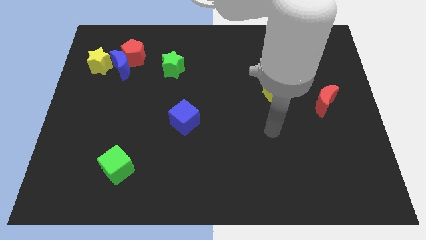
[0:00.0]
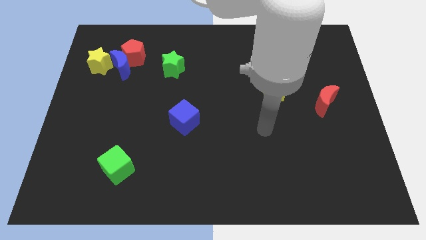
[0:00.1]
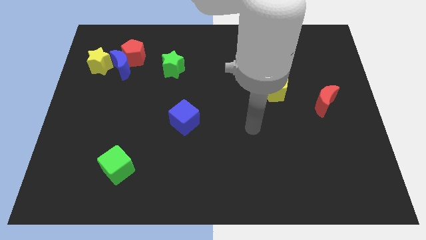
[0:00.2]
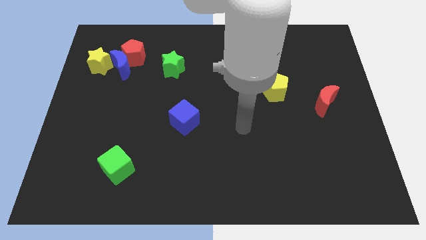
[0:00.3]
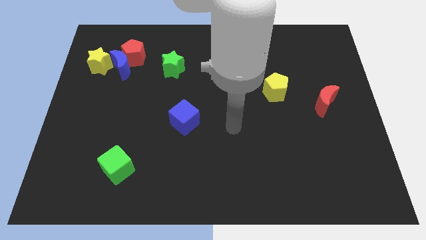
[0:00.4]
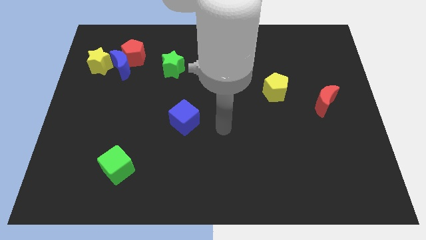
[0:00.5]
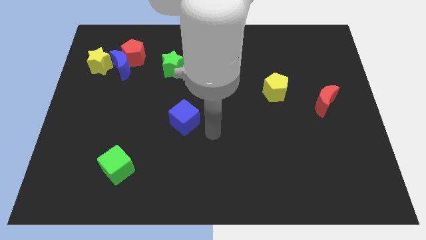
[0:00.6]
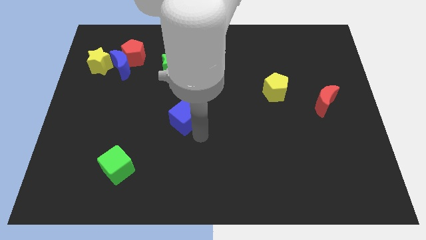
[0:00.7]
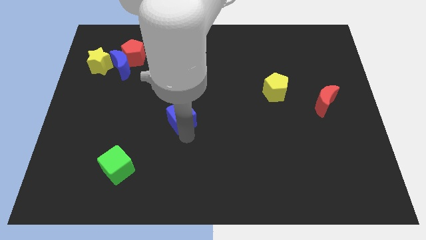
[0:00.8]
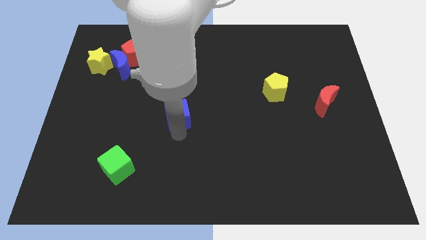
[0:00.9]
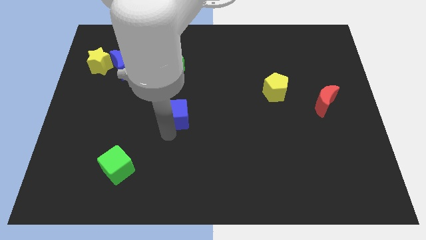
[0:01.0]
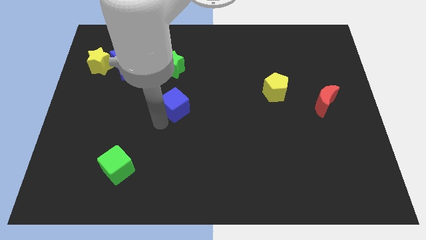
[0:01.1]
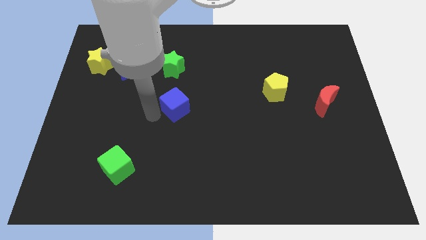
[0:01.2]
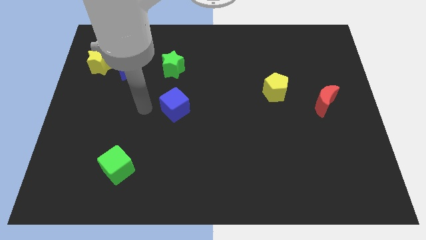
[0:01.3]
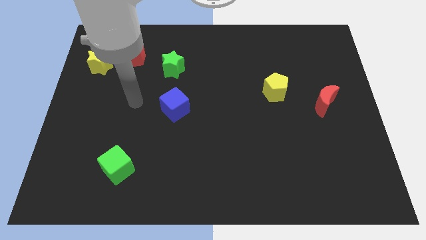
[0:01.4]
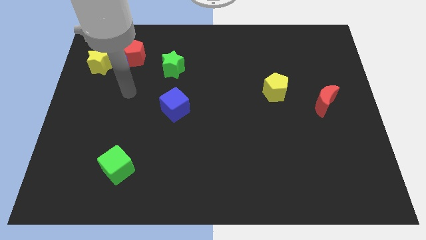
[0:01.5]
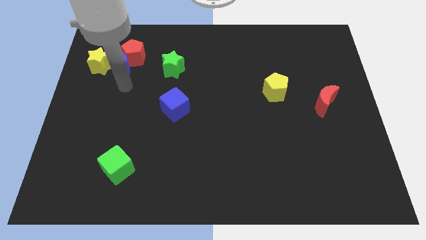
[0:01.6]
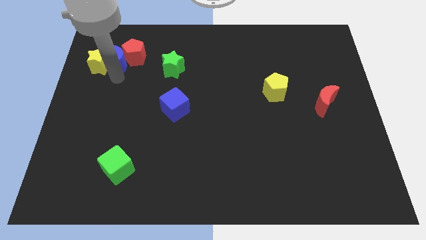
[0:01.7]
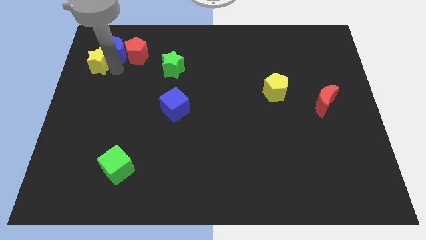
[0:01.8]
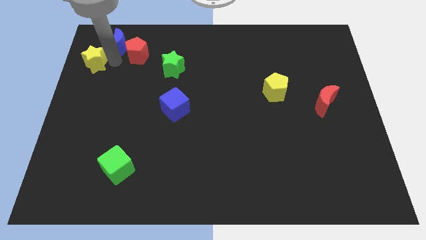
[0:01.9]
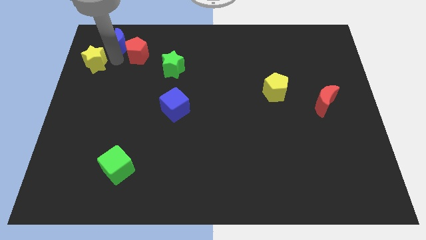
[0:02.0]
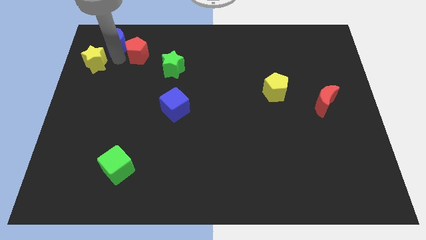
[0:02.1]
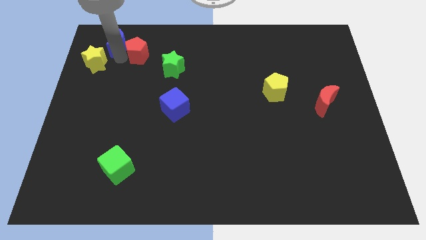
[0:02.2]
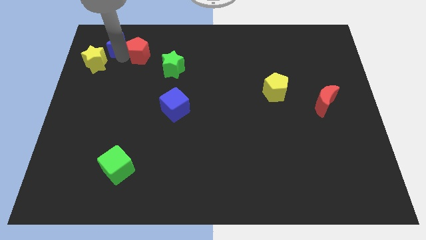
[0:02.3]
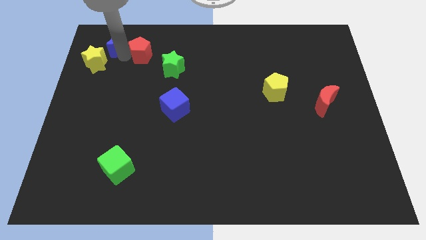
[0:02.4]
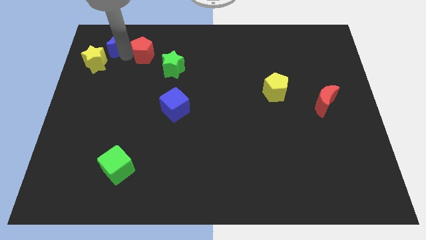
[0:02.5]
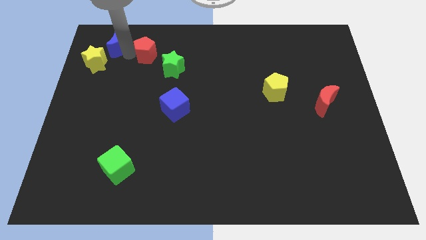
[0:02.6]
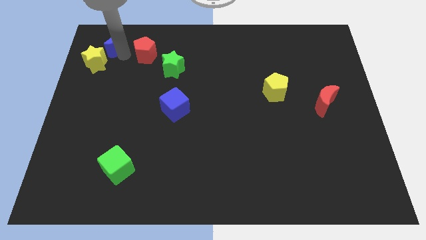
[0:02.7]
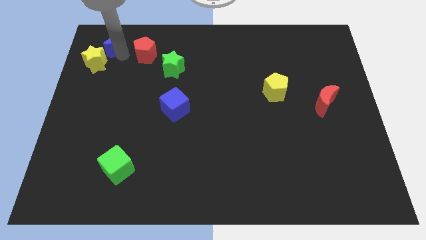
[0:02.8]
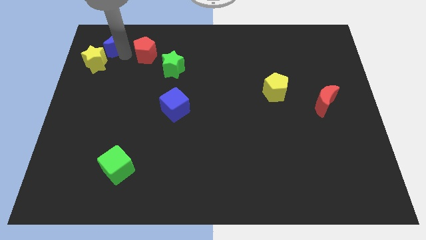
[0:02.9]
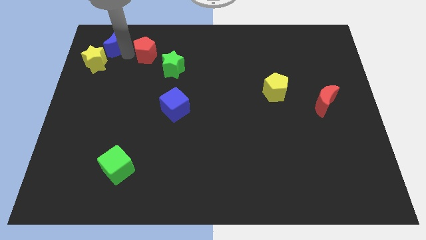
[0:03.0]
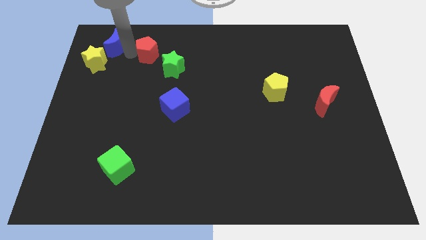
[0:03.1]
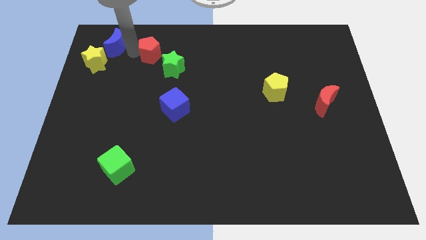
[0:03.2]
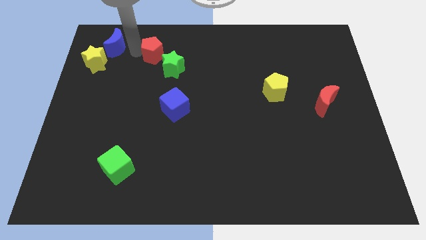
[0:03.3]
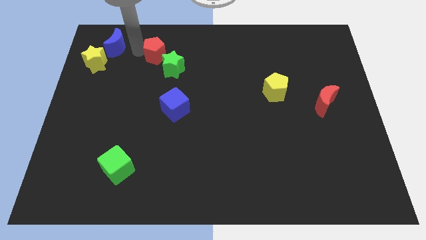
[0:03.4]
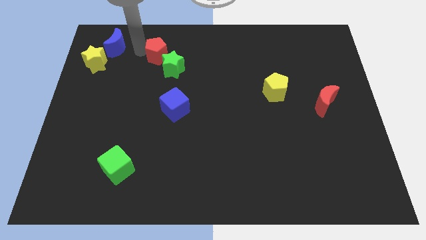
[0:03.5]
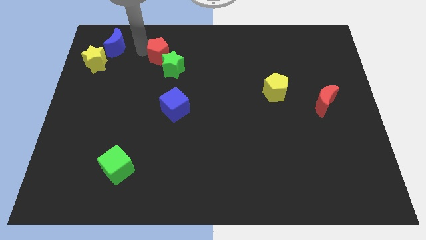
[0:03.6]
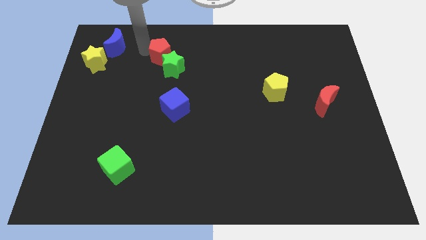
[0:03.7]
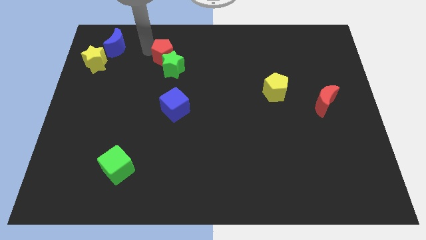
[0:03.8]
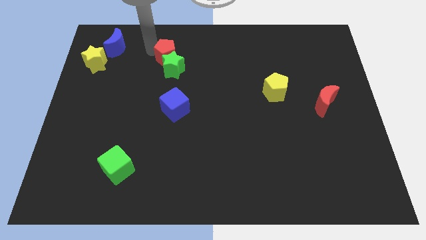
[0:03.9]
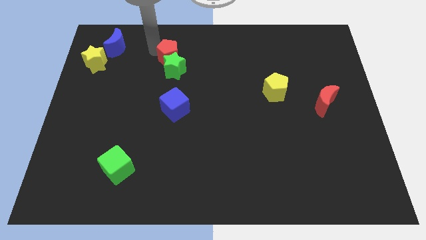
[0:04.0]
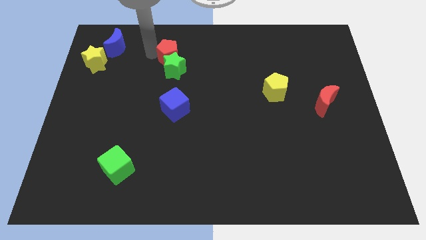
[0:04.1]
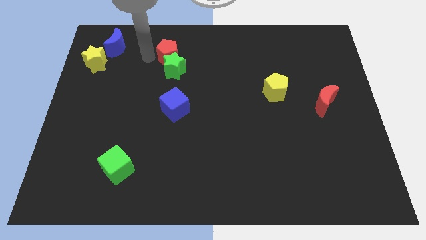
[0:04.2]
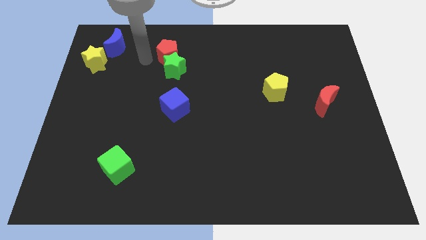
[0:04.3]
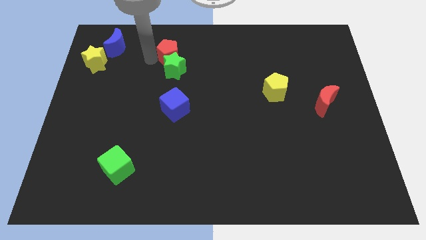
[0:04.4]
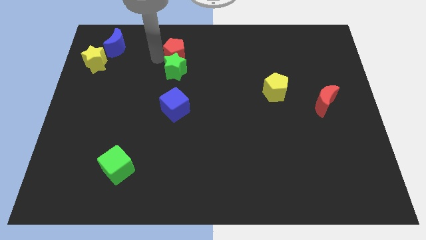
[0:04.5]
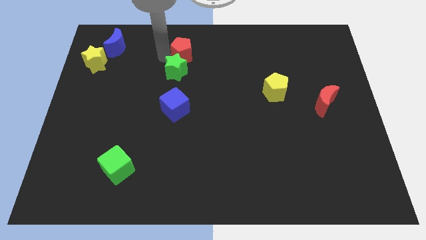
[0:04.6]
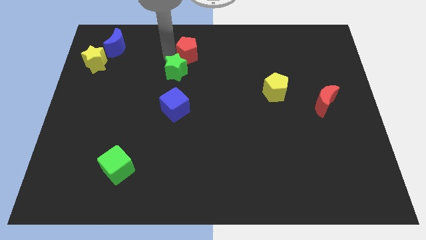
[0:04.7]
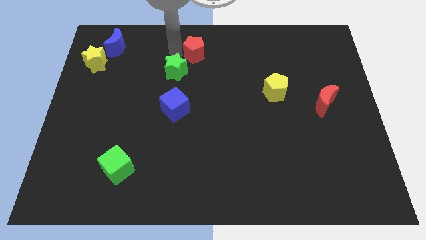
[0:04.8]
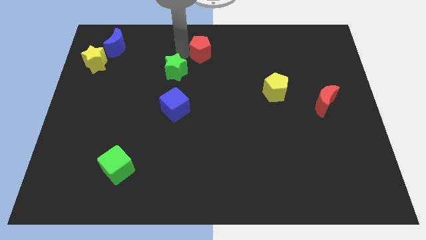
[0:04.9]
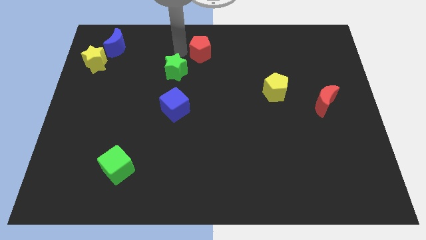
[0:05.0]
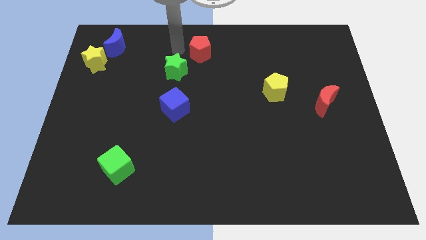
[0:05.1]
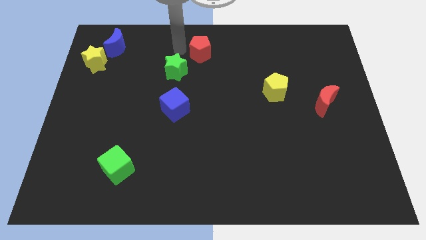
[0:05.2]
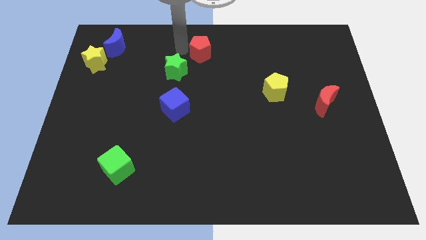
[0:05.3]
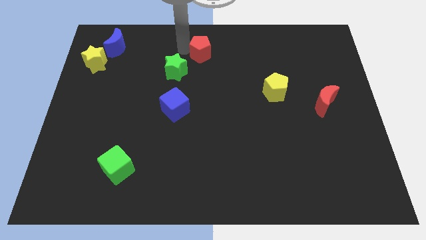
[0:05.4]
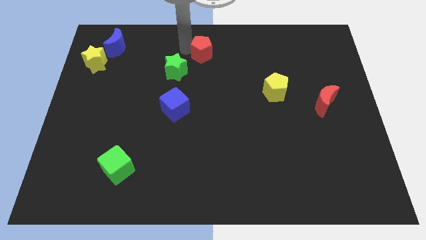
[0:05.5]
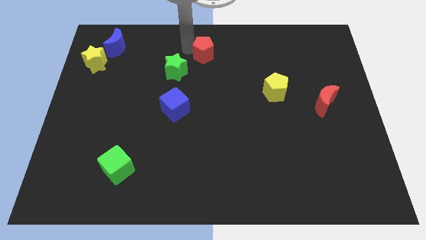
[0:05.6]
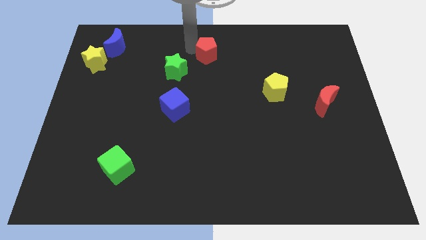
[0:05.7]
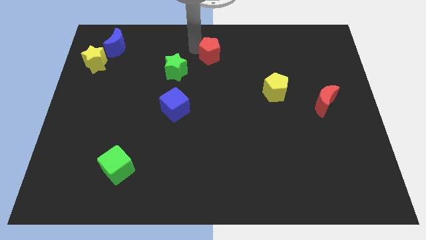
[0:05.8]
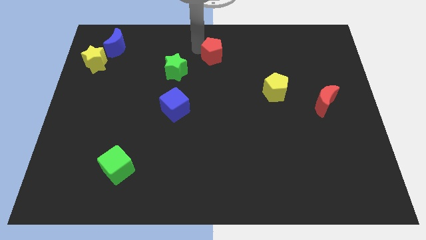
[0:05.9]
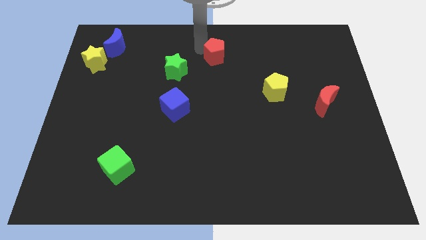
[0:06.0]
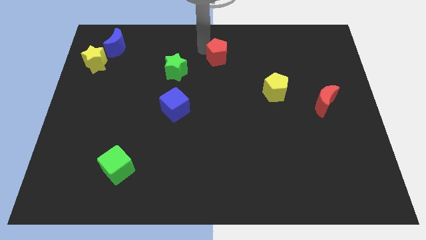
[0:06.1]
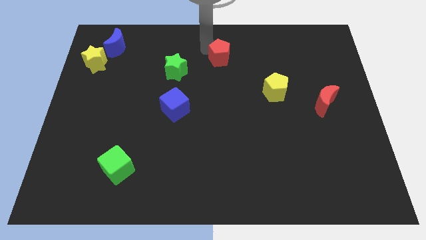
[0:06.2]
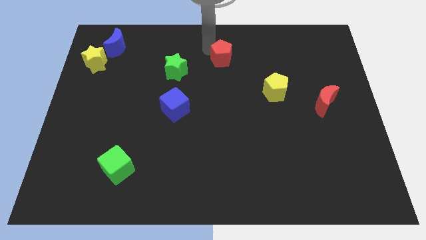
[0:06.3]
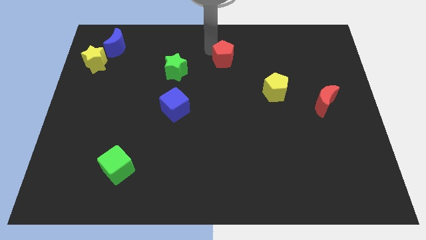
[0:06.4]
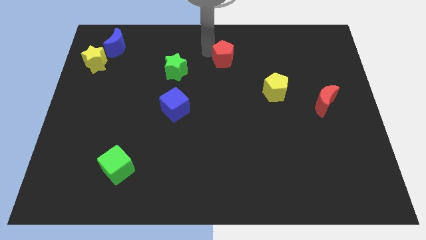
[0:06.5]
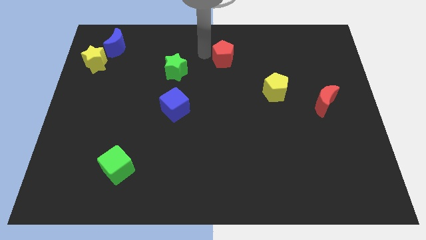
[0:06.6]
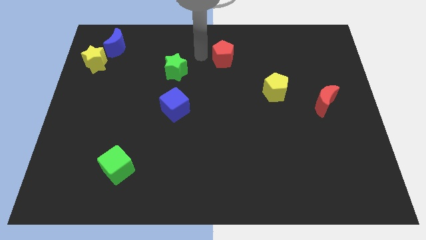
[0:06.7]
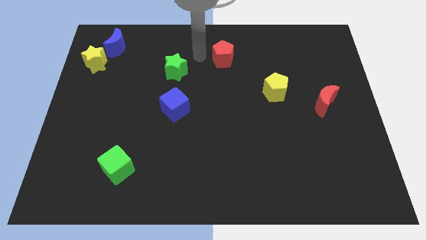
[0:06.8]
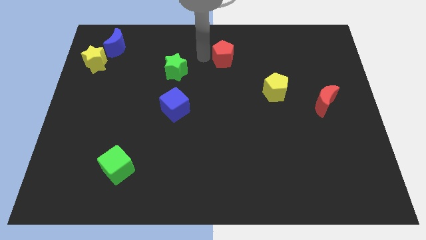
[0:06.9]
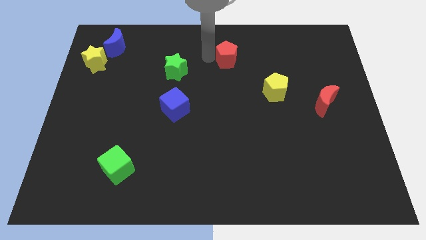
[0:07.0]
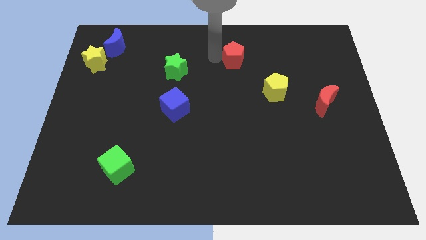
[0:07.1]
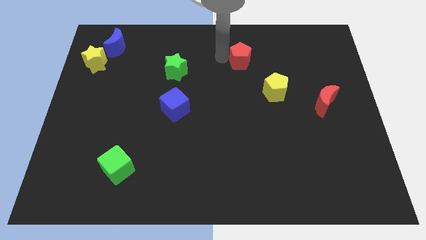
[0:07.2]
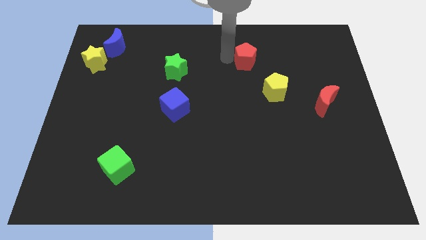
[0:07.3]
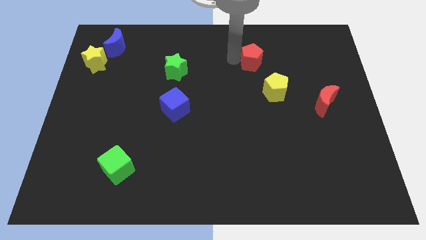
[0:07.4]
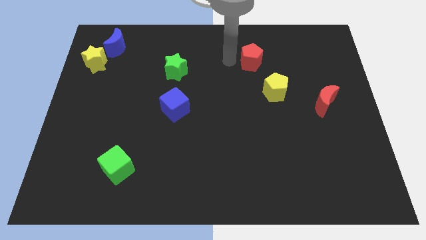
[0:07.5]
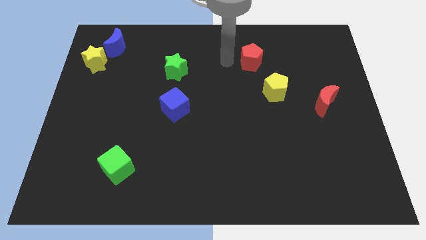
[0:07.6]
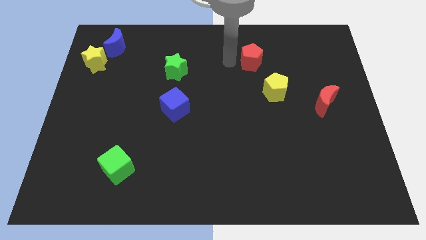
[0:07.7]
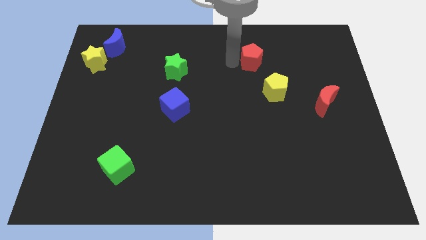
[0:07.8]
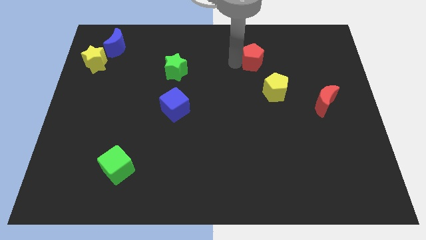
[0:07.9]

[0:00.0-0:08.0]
move the red pentagon to the top of the yellow pentagon
